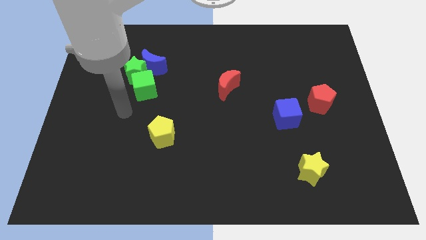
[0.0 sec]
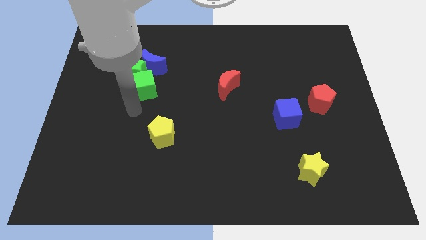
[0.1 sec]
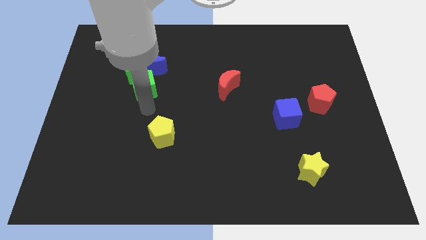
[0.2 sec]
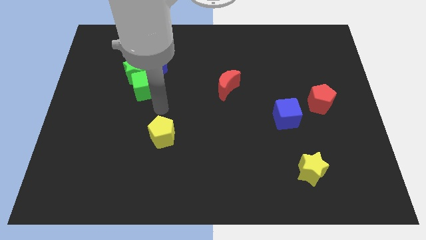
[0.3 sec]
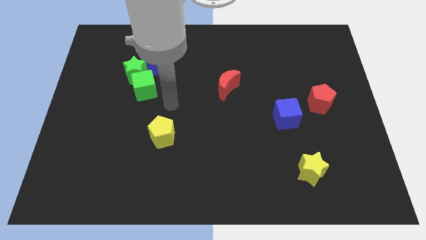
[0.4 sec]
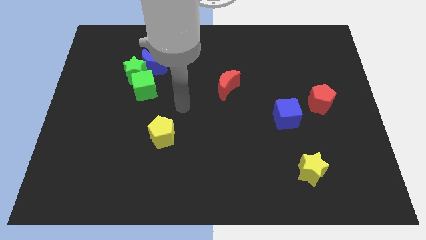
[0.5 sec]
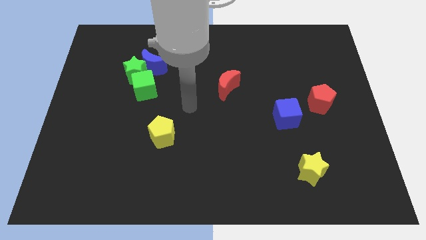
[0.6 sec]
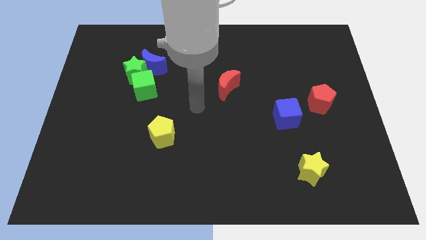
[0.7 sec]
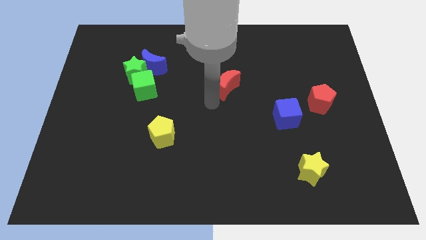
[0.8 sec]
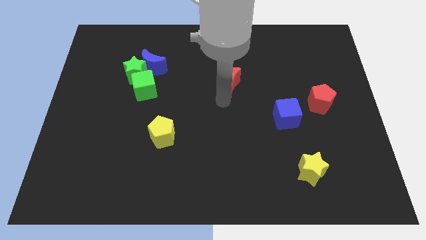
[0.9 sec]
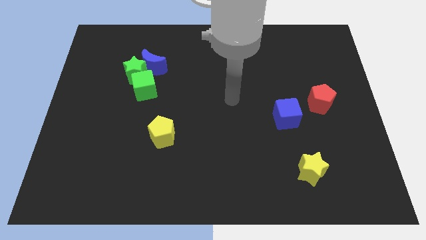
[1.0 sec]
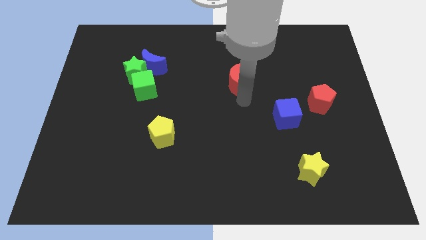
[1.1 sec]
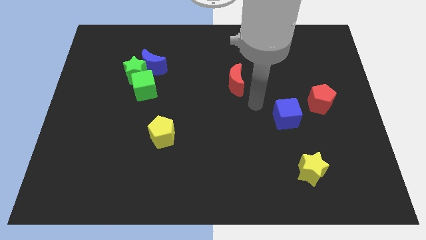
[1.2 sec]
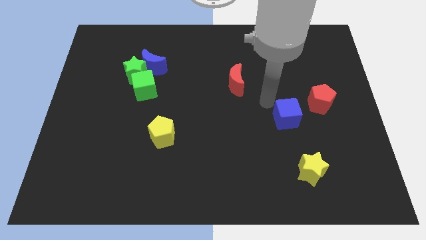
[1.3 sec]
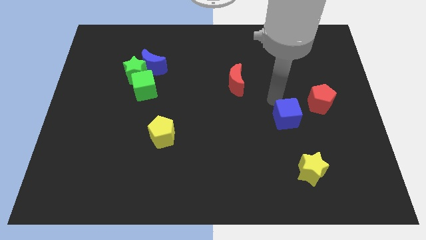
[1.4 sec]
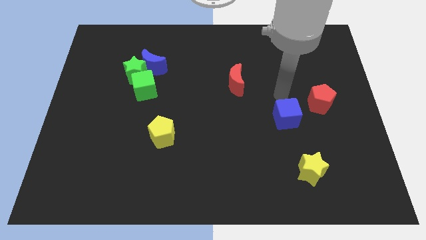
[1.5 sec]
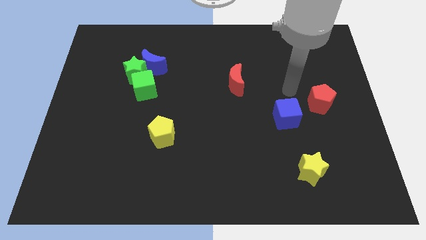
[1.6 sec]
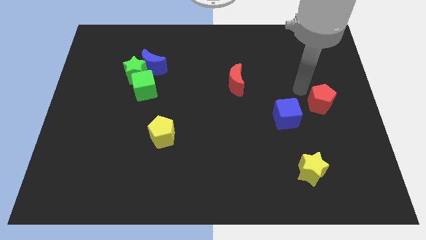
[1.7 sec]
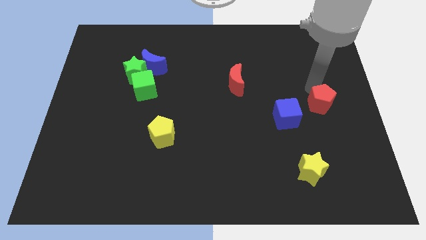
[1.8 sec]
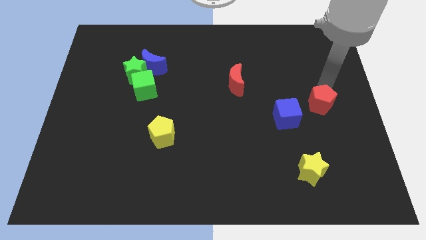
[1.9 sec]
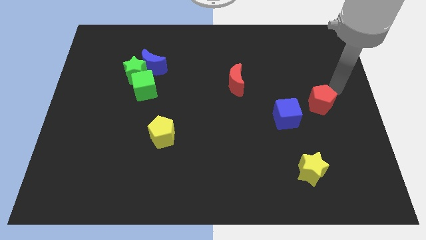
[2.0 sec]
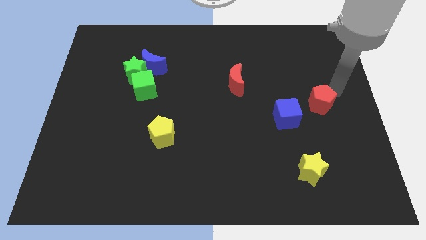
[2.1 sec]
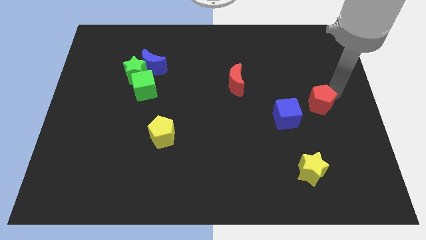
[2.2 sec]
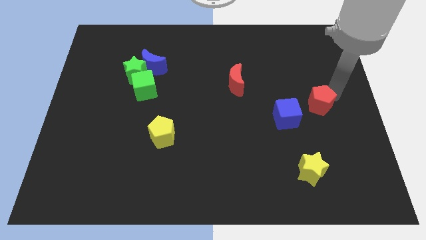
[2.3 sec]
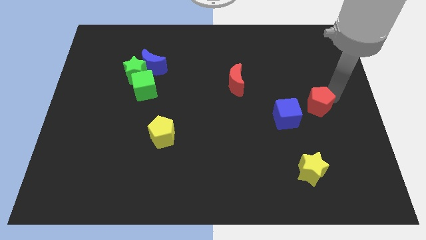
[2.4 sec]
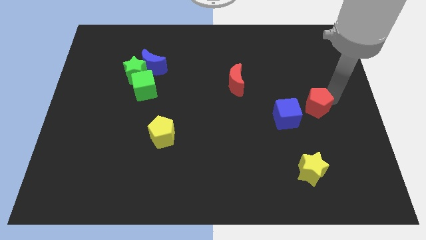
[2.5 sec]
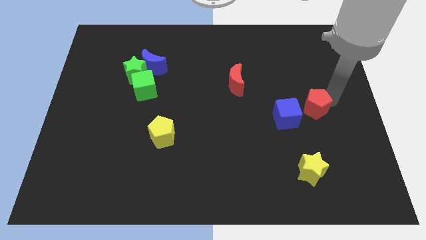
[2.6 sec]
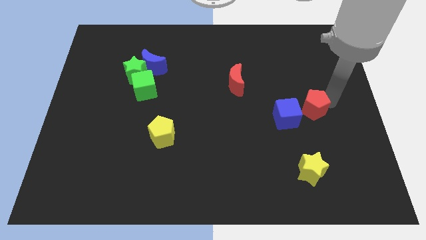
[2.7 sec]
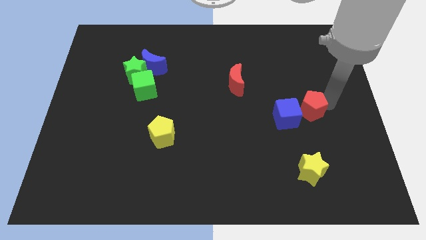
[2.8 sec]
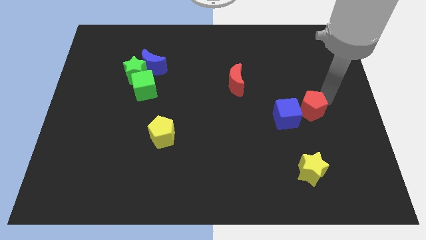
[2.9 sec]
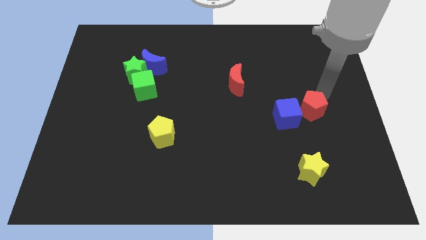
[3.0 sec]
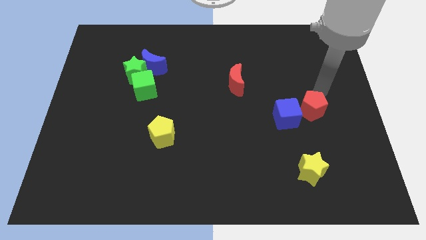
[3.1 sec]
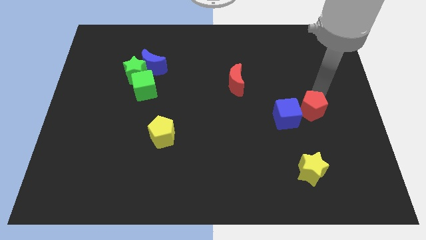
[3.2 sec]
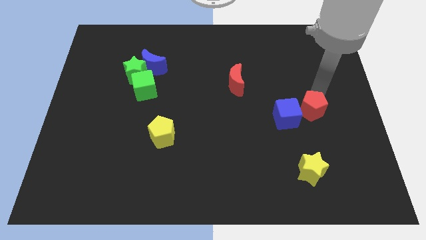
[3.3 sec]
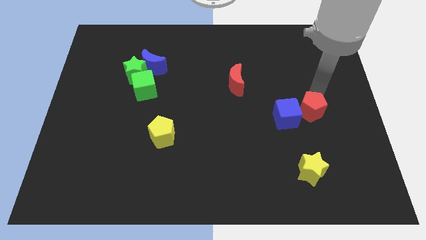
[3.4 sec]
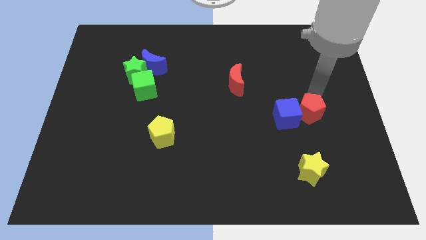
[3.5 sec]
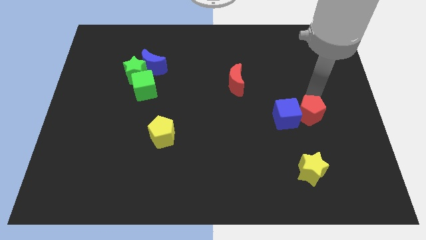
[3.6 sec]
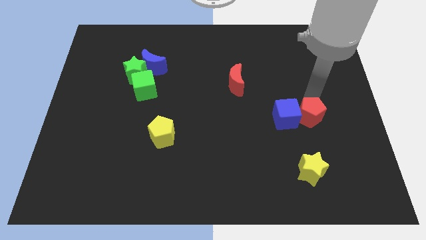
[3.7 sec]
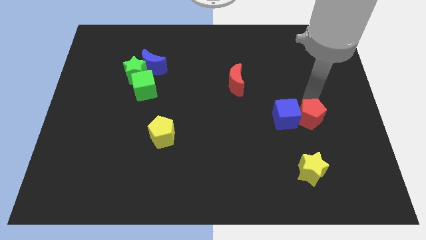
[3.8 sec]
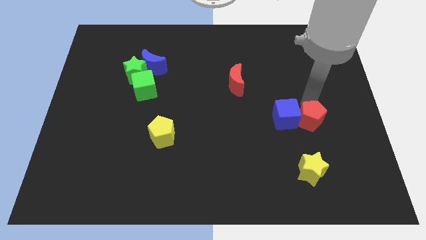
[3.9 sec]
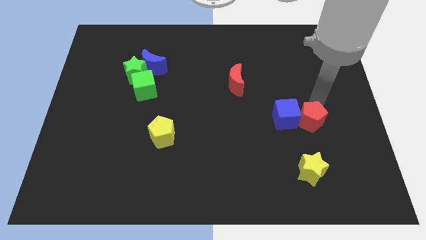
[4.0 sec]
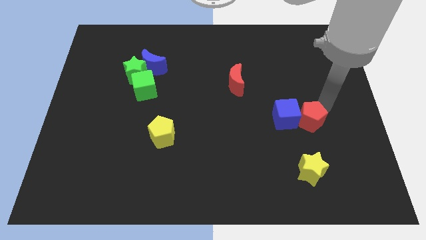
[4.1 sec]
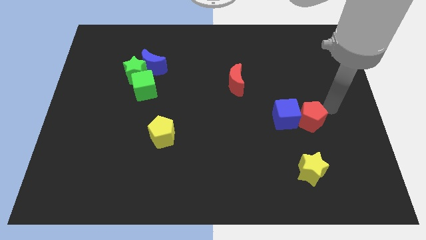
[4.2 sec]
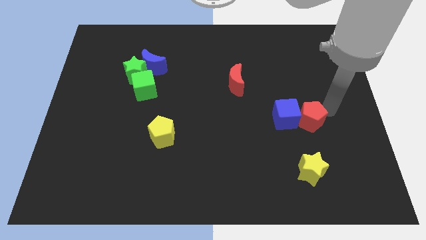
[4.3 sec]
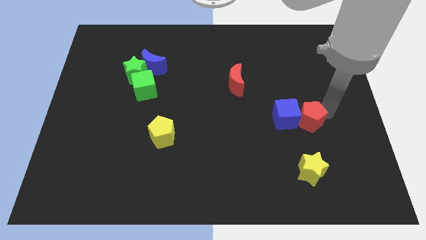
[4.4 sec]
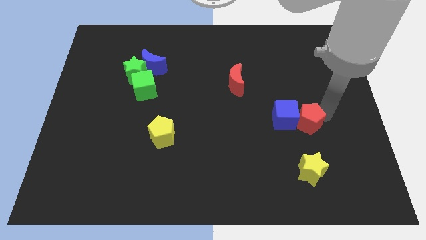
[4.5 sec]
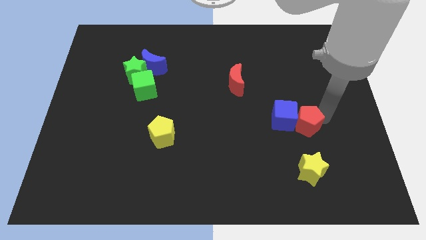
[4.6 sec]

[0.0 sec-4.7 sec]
move the red pentagon downwards and then left a little bit

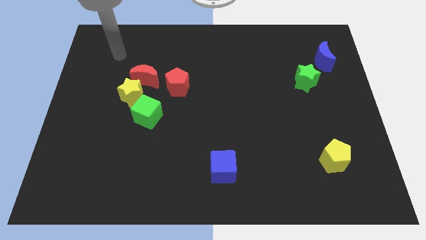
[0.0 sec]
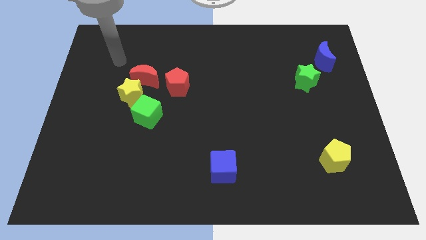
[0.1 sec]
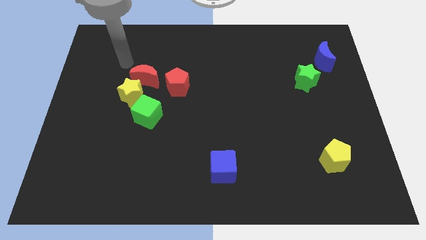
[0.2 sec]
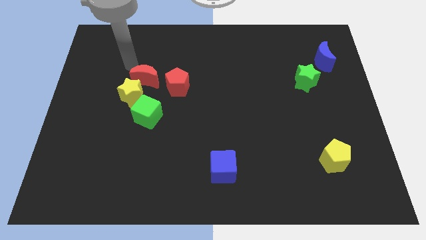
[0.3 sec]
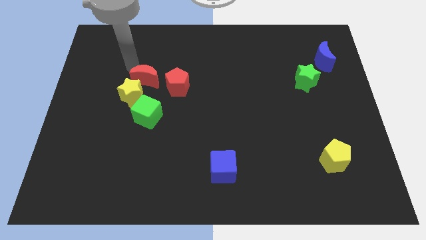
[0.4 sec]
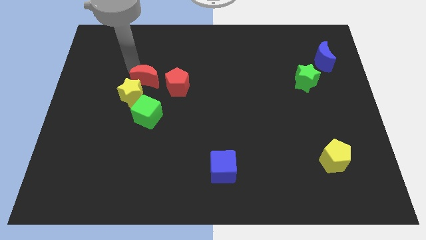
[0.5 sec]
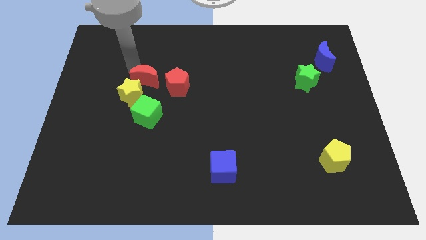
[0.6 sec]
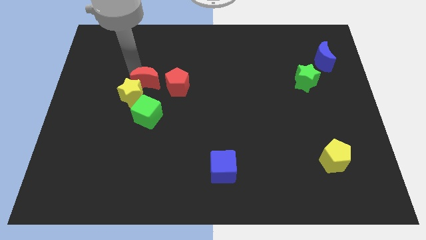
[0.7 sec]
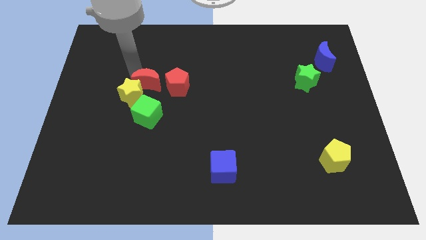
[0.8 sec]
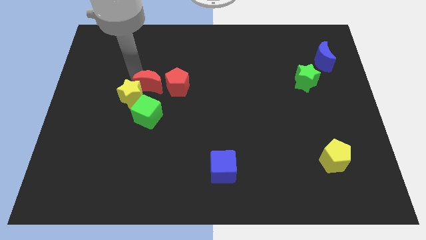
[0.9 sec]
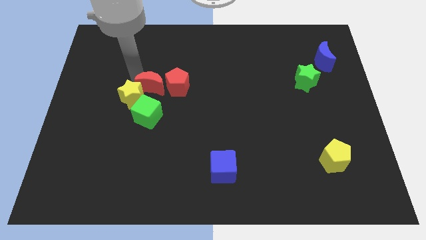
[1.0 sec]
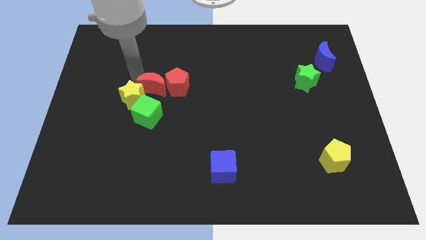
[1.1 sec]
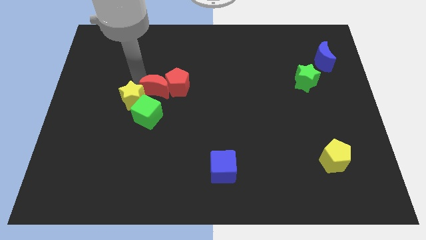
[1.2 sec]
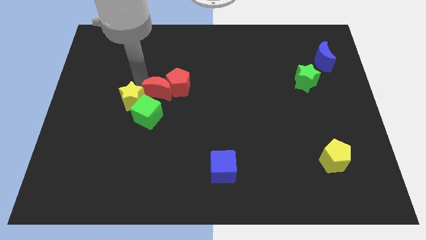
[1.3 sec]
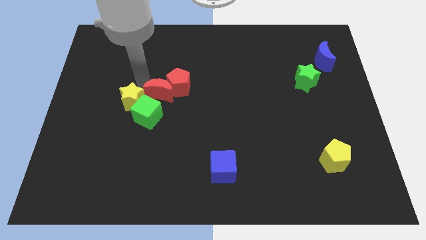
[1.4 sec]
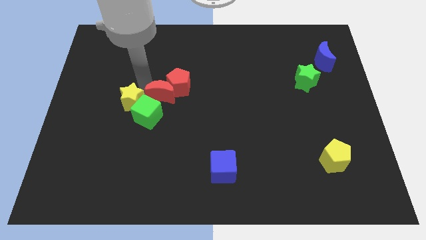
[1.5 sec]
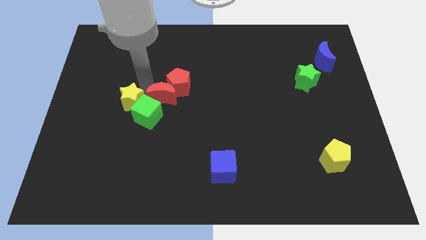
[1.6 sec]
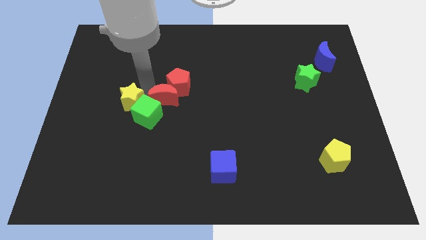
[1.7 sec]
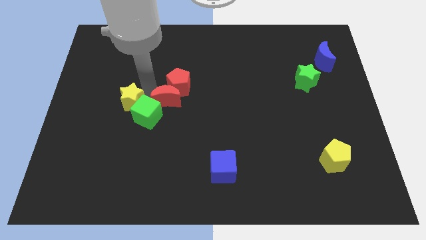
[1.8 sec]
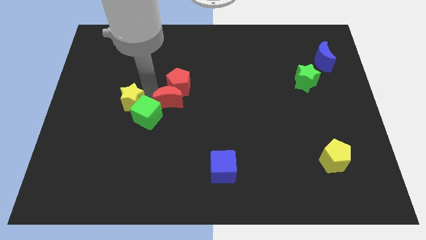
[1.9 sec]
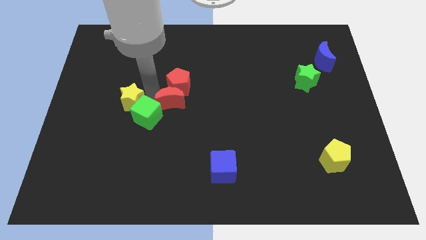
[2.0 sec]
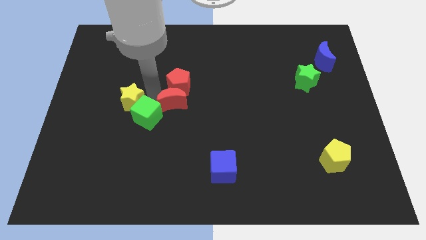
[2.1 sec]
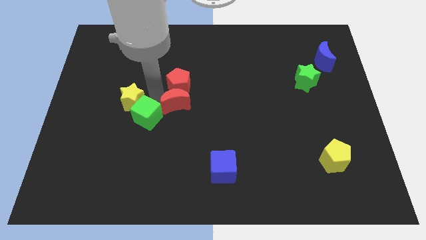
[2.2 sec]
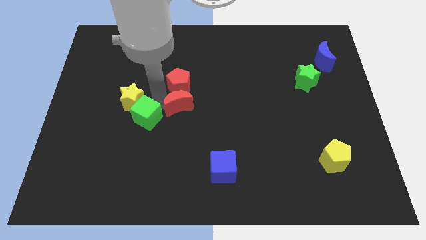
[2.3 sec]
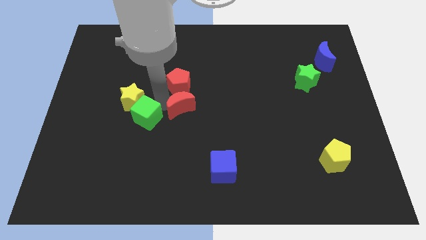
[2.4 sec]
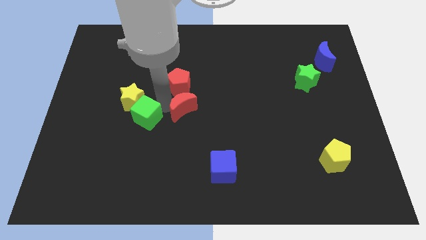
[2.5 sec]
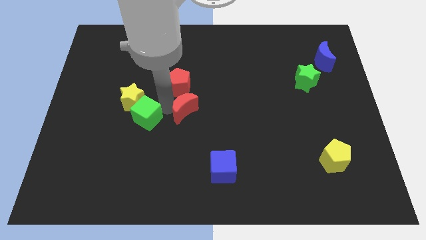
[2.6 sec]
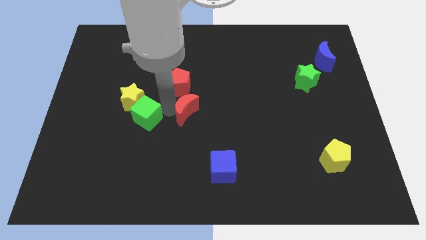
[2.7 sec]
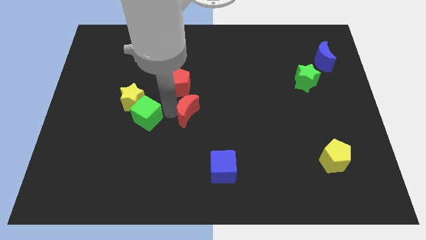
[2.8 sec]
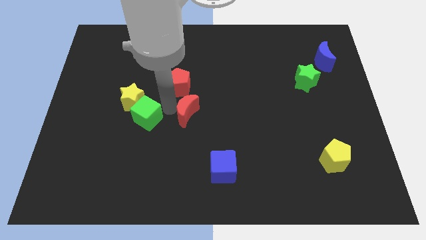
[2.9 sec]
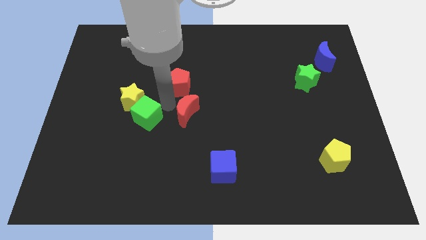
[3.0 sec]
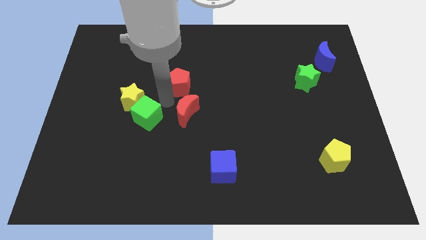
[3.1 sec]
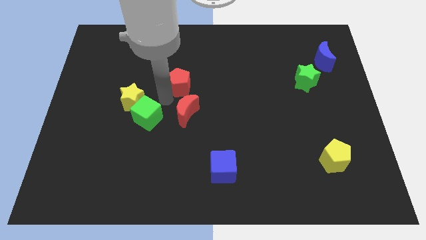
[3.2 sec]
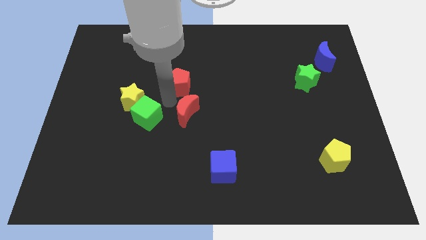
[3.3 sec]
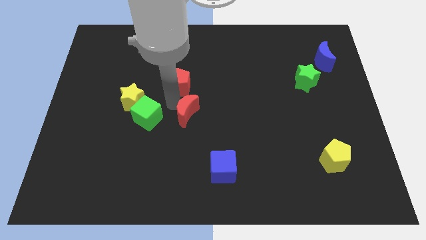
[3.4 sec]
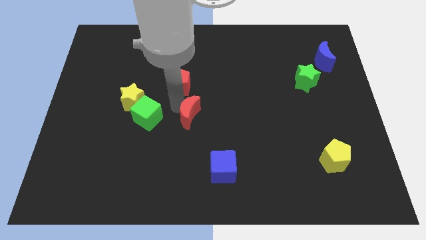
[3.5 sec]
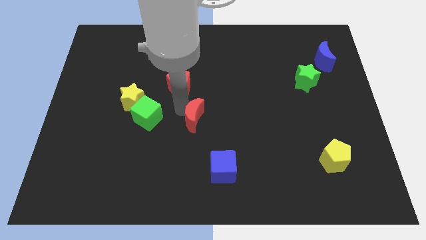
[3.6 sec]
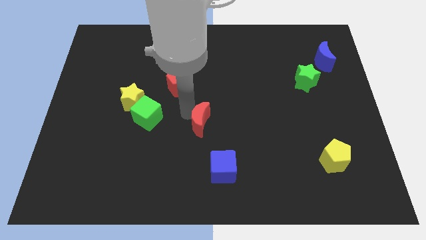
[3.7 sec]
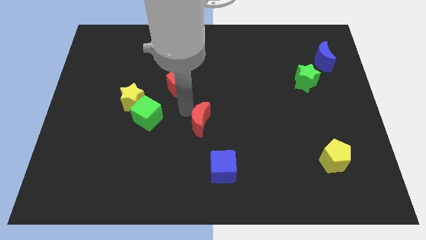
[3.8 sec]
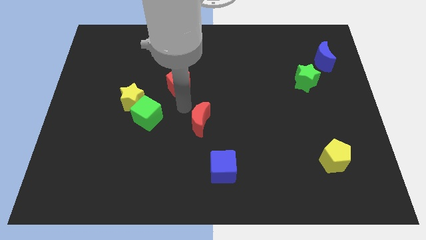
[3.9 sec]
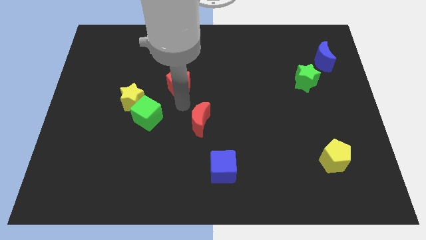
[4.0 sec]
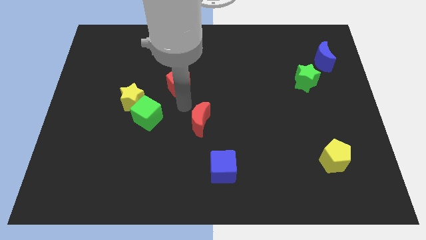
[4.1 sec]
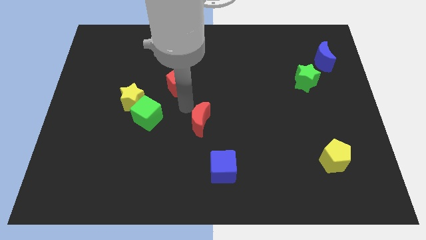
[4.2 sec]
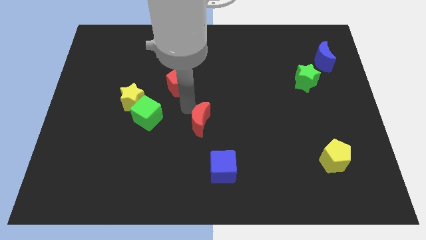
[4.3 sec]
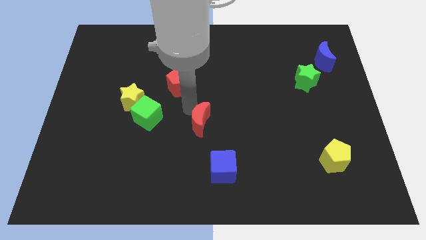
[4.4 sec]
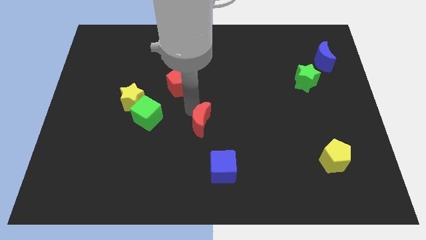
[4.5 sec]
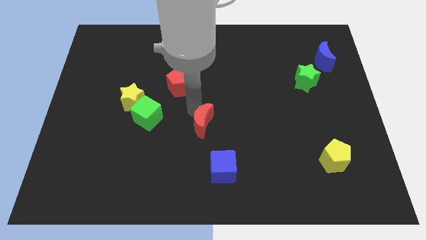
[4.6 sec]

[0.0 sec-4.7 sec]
slide the red moon diagonally down and to the right
